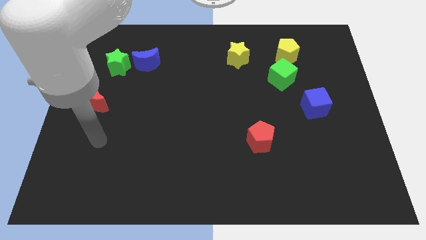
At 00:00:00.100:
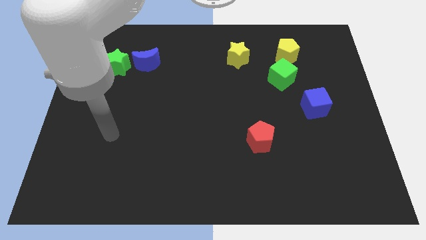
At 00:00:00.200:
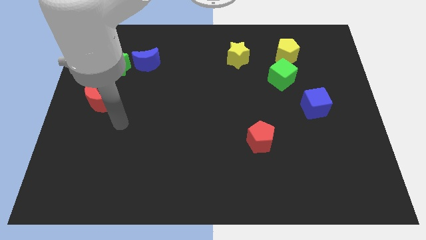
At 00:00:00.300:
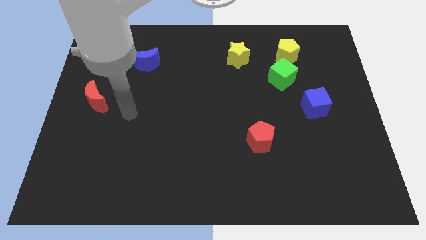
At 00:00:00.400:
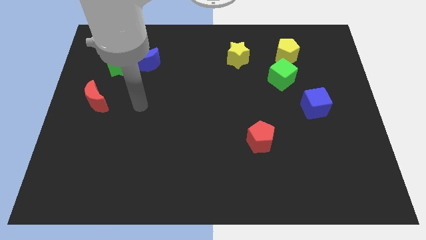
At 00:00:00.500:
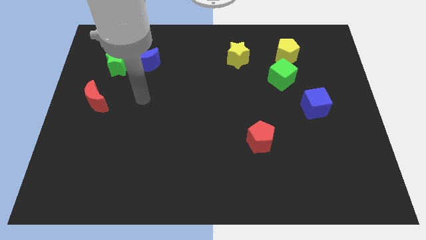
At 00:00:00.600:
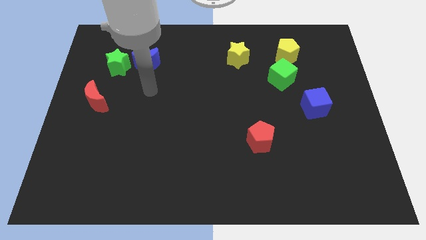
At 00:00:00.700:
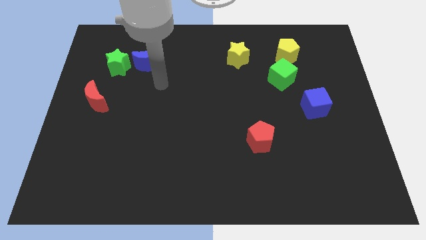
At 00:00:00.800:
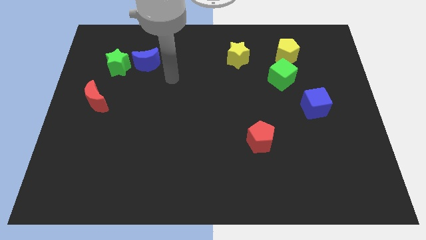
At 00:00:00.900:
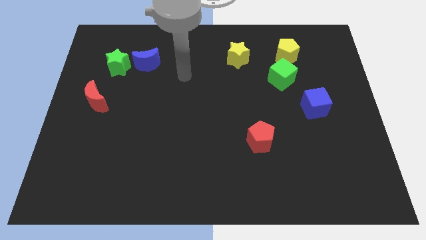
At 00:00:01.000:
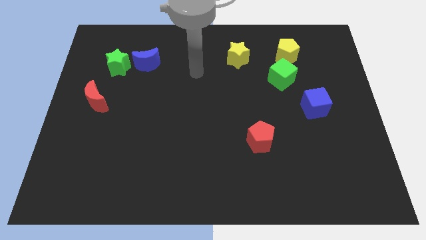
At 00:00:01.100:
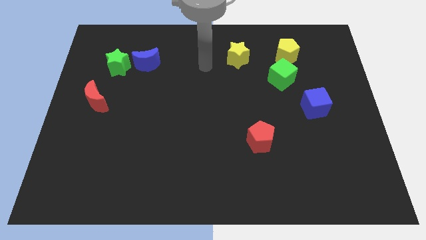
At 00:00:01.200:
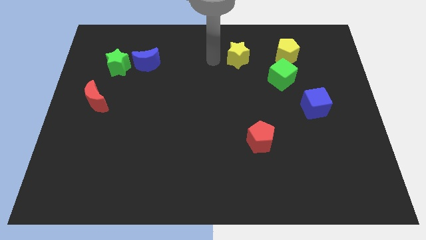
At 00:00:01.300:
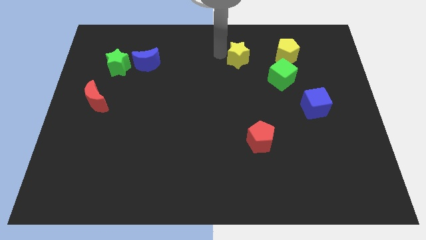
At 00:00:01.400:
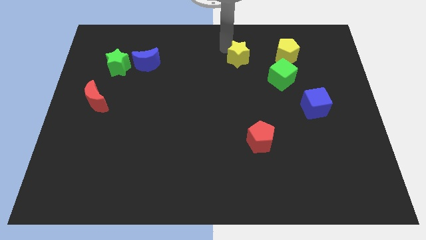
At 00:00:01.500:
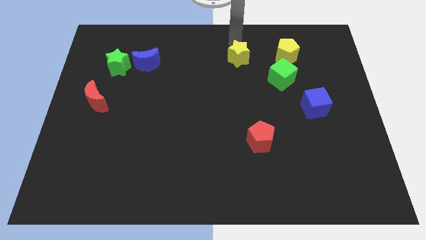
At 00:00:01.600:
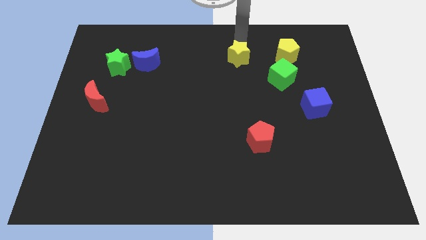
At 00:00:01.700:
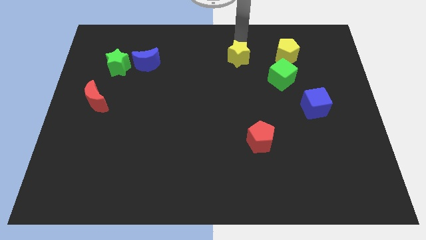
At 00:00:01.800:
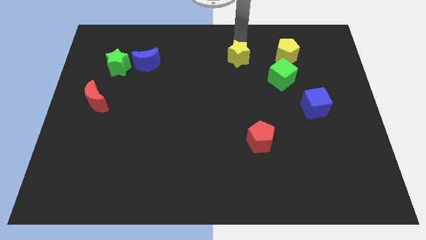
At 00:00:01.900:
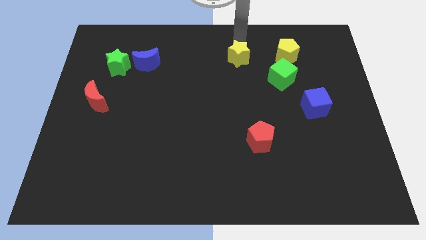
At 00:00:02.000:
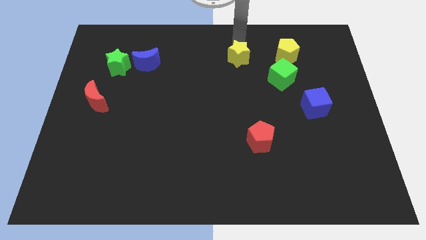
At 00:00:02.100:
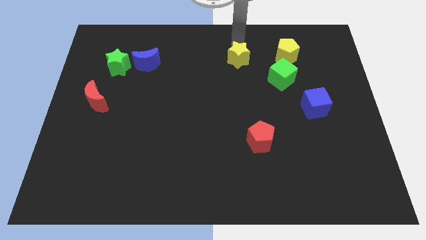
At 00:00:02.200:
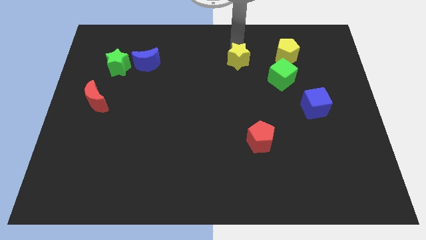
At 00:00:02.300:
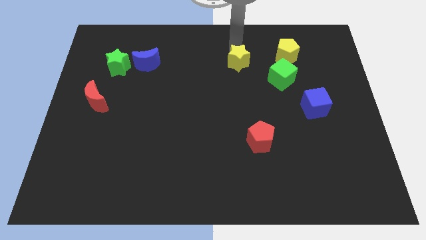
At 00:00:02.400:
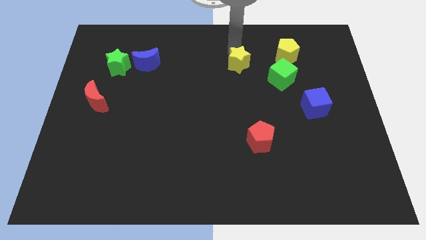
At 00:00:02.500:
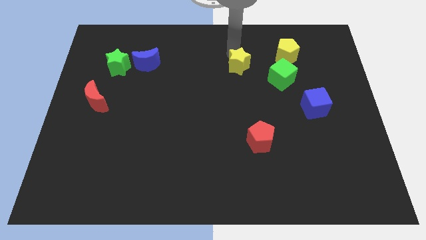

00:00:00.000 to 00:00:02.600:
put the yellow star just left of the green cube

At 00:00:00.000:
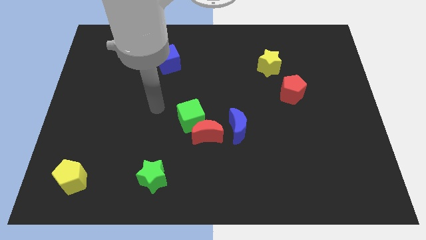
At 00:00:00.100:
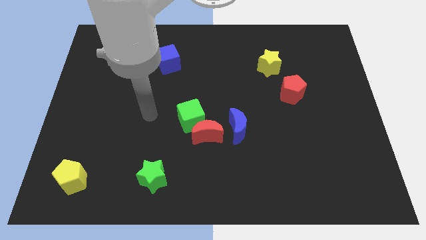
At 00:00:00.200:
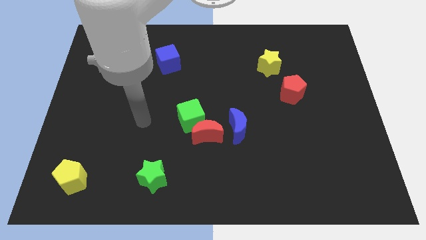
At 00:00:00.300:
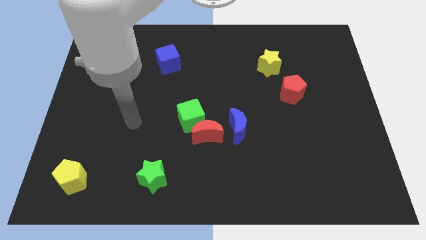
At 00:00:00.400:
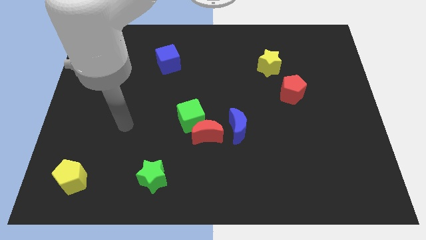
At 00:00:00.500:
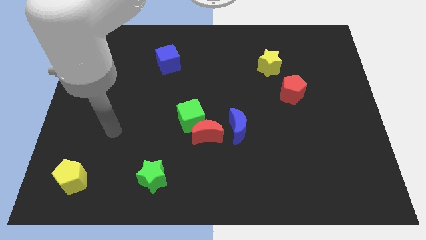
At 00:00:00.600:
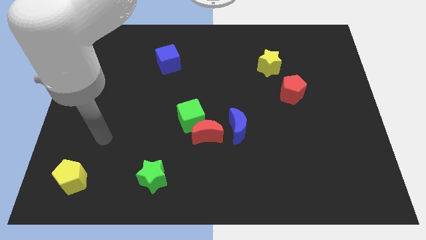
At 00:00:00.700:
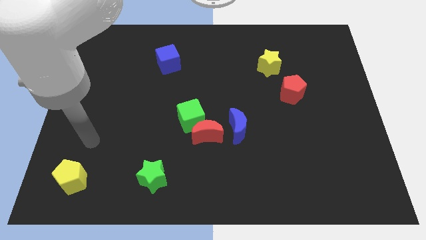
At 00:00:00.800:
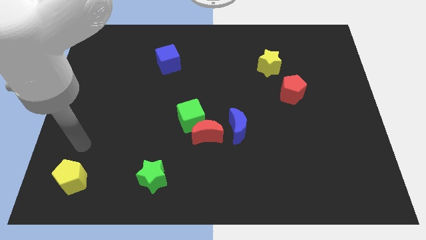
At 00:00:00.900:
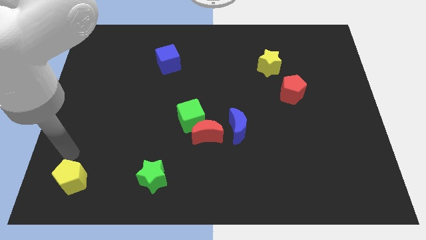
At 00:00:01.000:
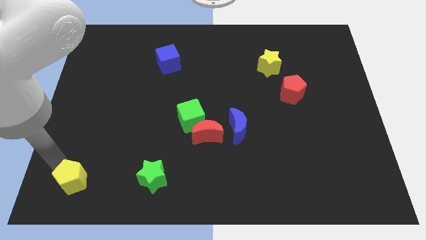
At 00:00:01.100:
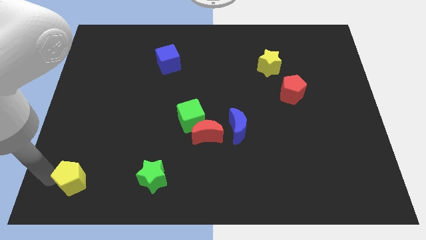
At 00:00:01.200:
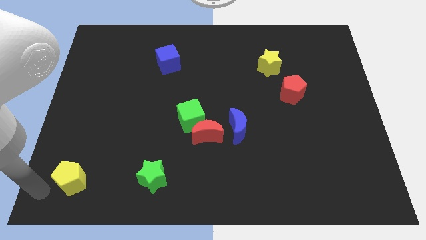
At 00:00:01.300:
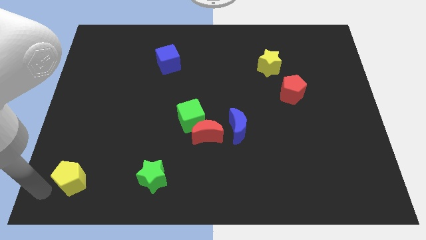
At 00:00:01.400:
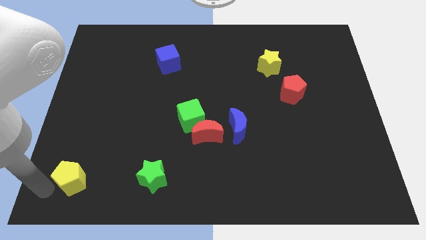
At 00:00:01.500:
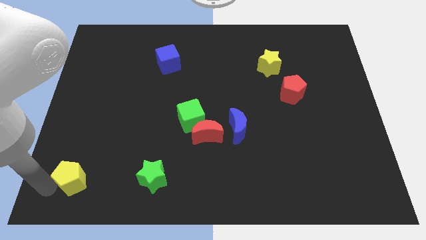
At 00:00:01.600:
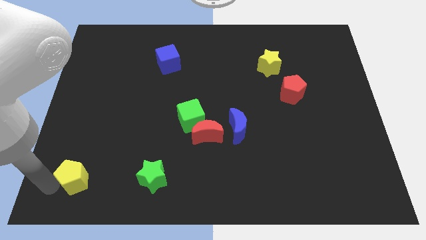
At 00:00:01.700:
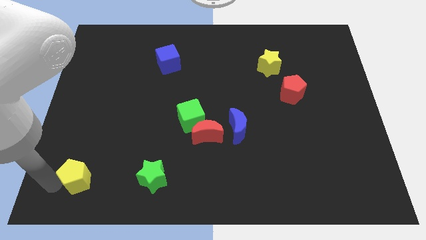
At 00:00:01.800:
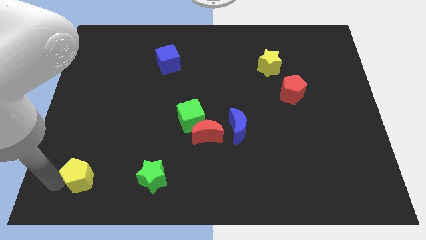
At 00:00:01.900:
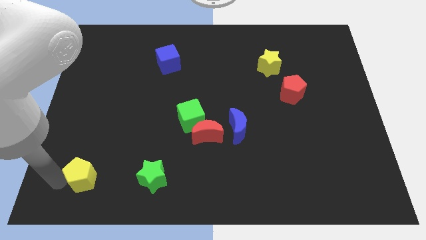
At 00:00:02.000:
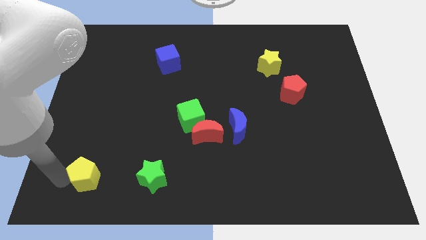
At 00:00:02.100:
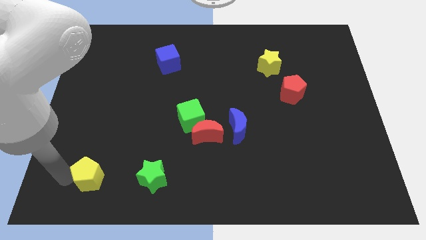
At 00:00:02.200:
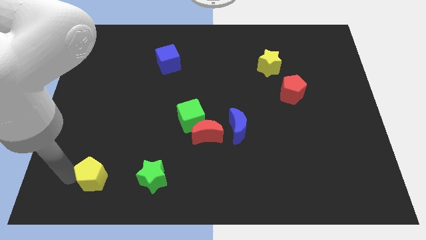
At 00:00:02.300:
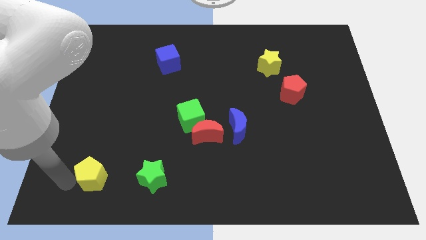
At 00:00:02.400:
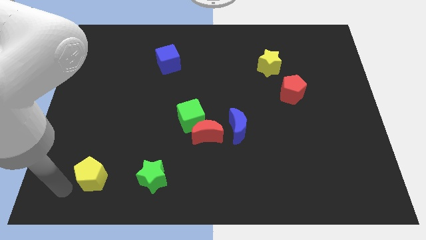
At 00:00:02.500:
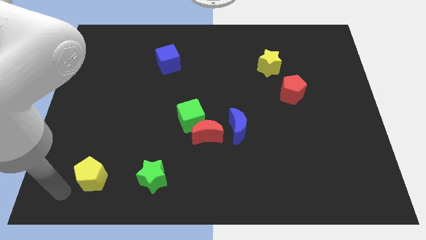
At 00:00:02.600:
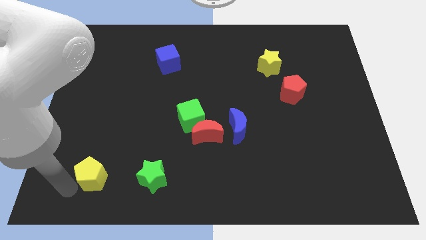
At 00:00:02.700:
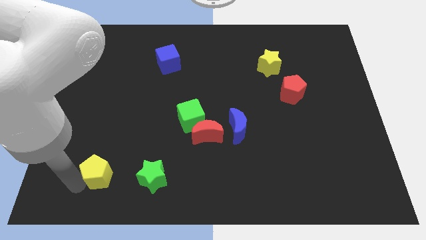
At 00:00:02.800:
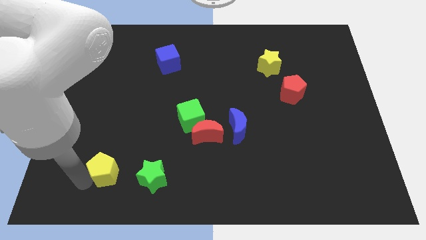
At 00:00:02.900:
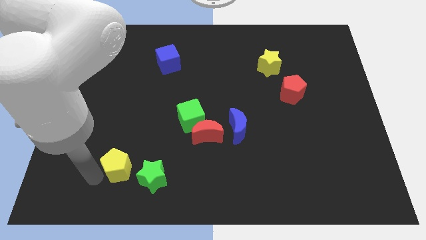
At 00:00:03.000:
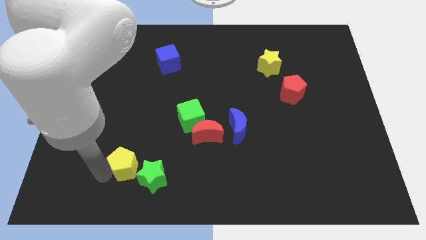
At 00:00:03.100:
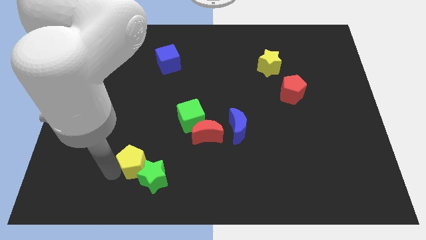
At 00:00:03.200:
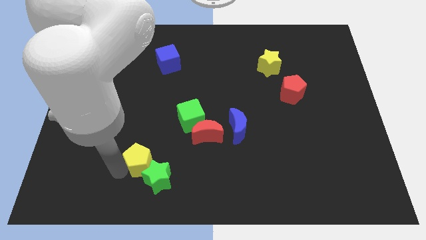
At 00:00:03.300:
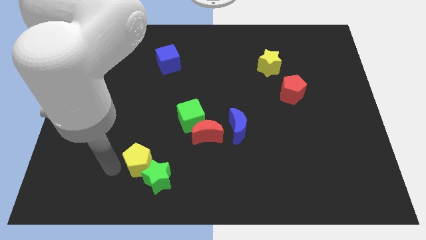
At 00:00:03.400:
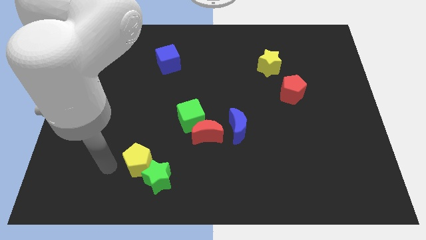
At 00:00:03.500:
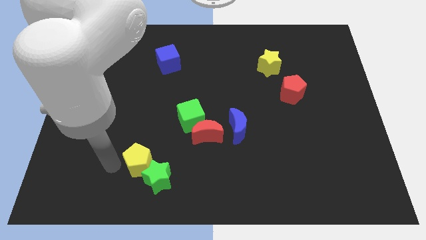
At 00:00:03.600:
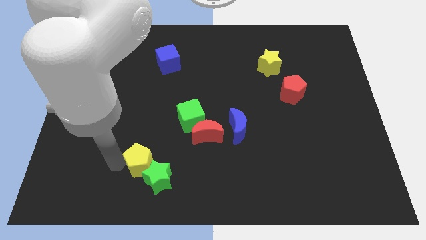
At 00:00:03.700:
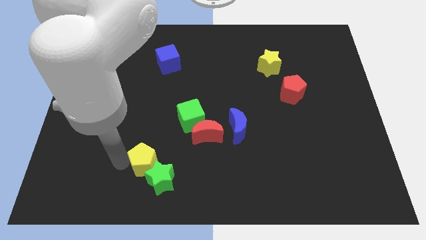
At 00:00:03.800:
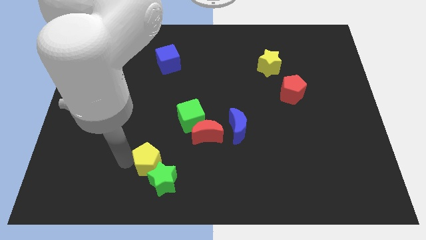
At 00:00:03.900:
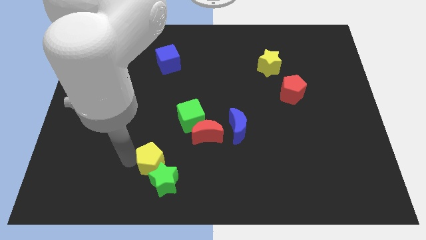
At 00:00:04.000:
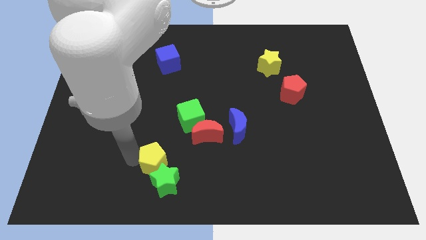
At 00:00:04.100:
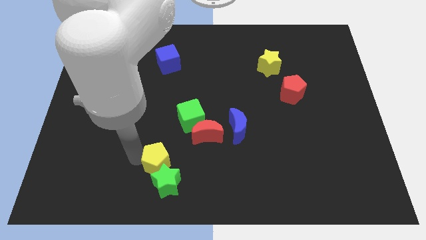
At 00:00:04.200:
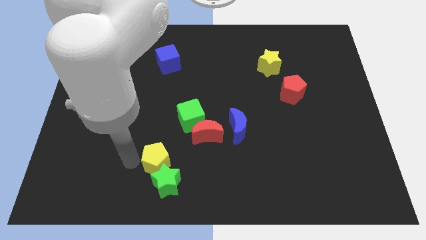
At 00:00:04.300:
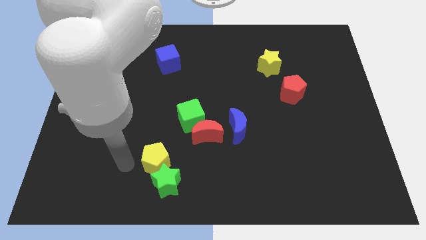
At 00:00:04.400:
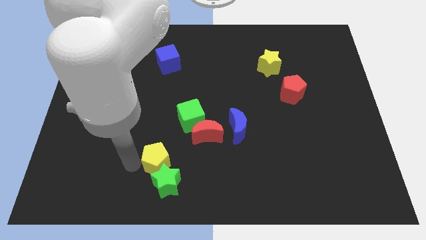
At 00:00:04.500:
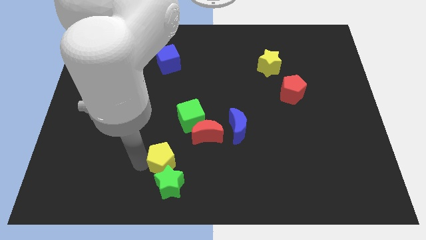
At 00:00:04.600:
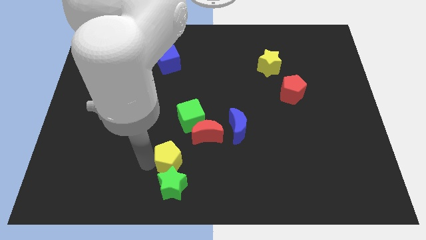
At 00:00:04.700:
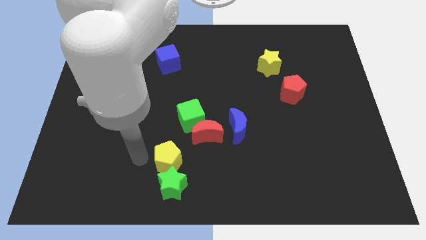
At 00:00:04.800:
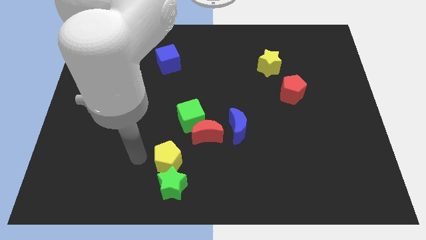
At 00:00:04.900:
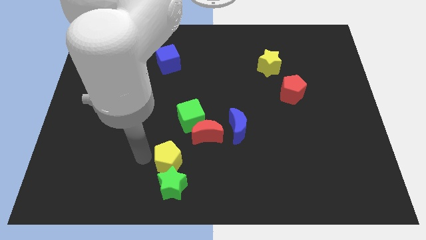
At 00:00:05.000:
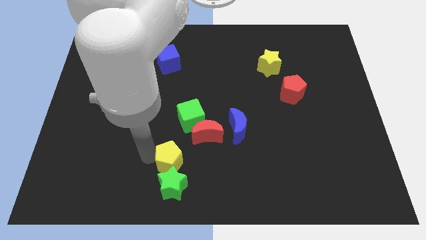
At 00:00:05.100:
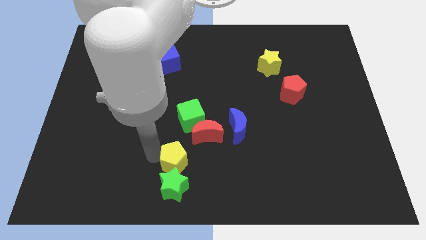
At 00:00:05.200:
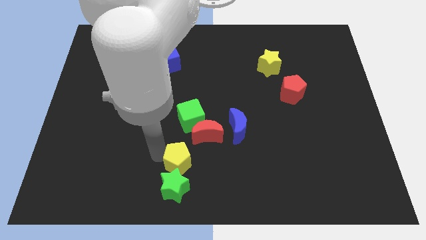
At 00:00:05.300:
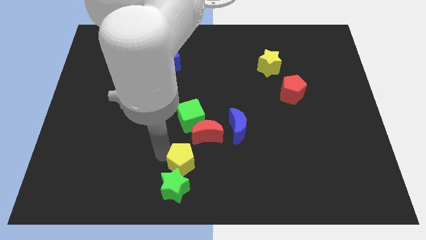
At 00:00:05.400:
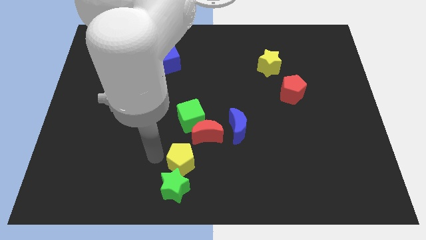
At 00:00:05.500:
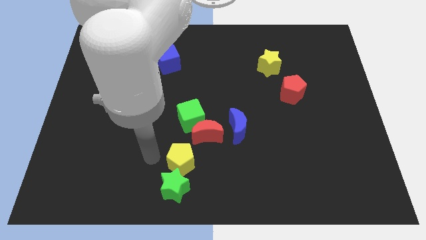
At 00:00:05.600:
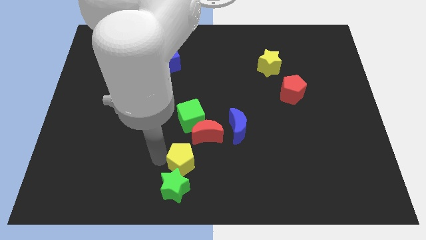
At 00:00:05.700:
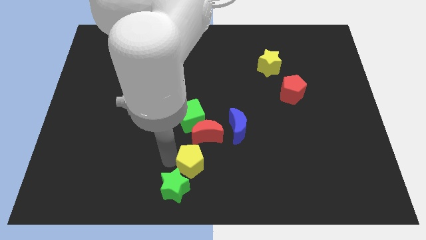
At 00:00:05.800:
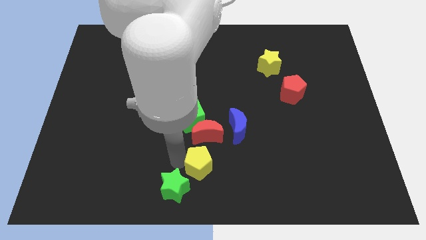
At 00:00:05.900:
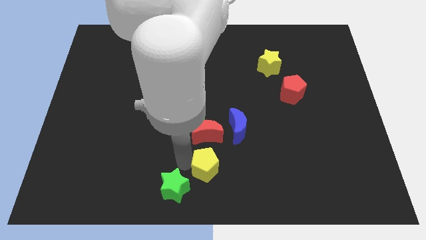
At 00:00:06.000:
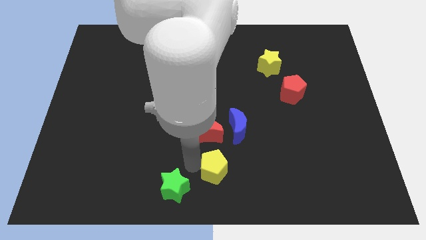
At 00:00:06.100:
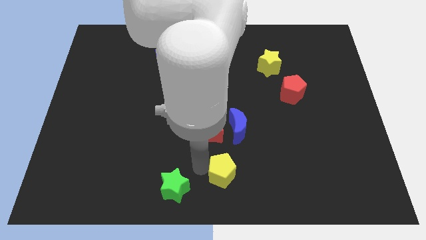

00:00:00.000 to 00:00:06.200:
push the yellow pentagon to the bottom of the blue moon
